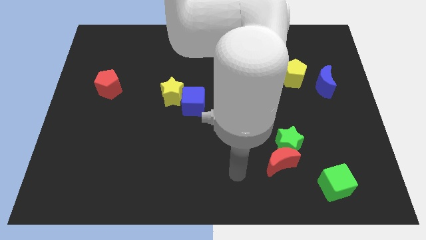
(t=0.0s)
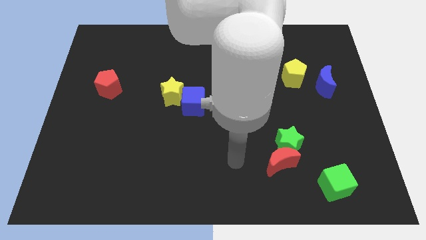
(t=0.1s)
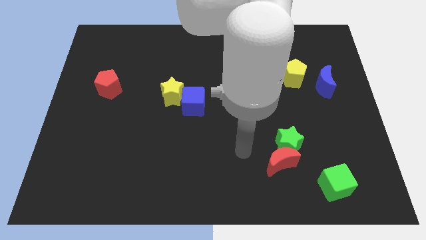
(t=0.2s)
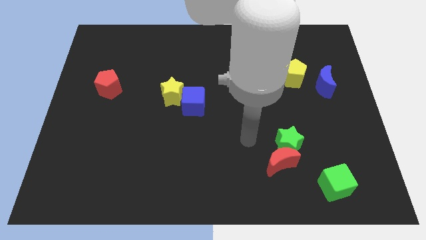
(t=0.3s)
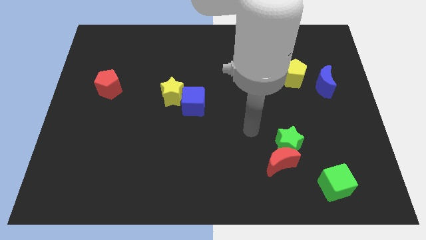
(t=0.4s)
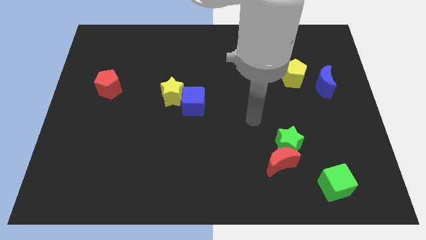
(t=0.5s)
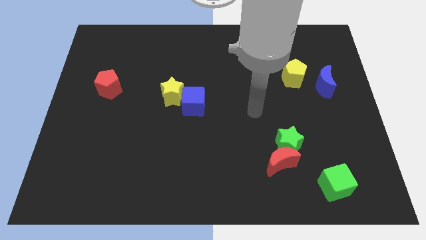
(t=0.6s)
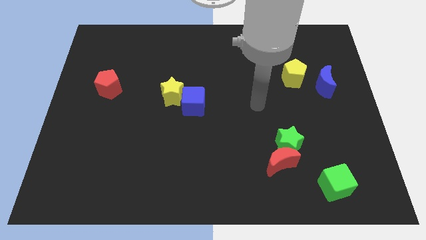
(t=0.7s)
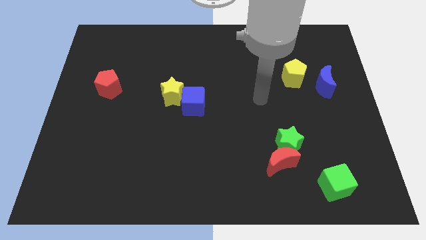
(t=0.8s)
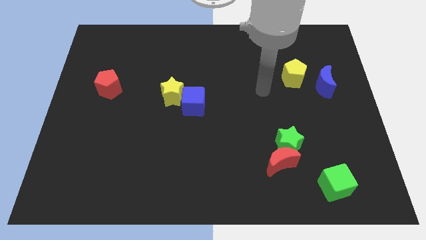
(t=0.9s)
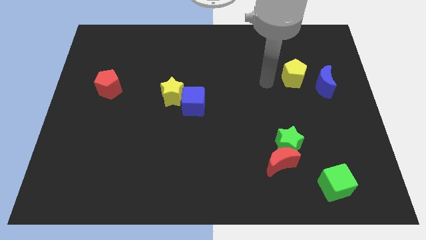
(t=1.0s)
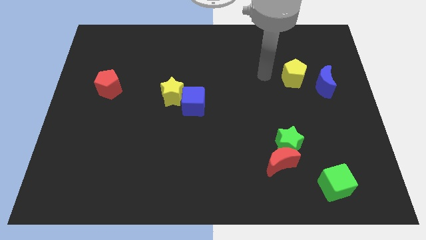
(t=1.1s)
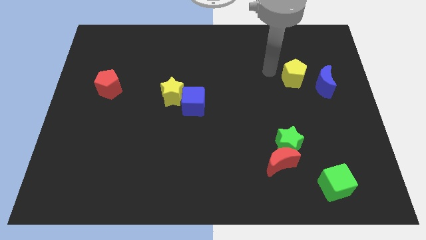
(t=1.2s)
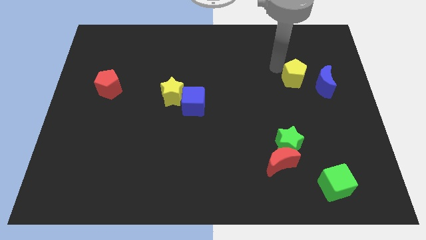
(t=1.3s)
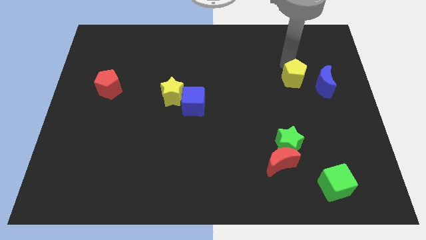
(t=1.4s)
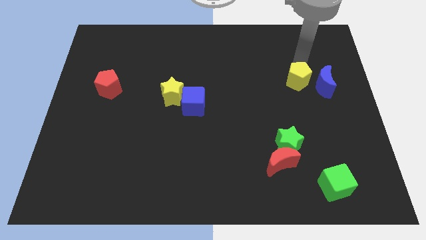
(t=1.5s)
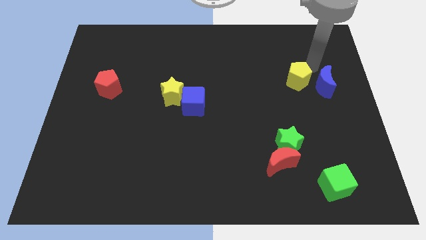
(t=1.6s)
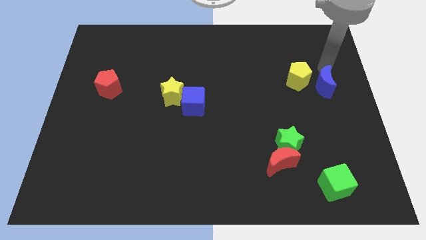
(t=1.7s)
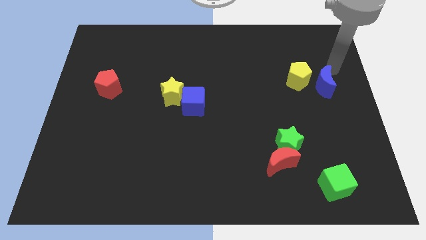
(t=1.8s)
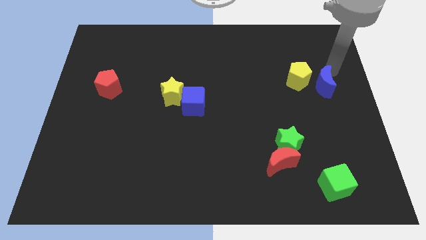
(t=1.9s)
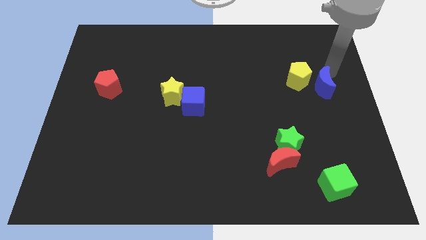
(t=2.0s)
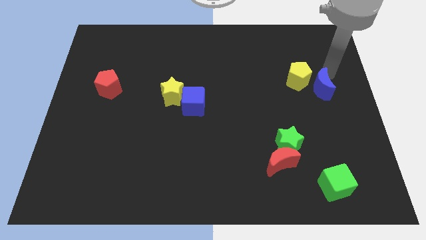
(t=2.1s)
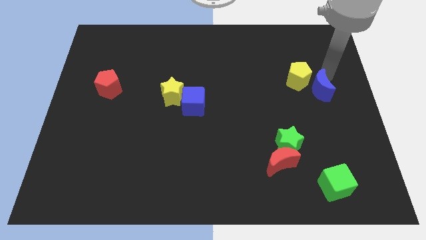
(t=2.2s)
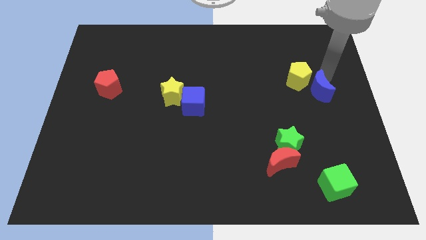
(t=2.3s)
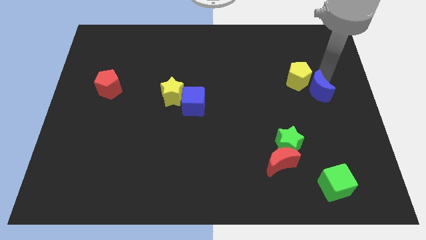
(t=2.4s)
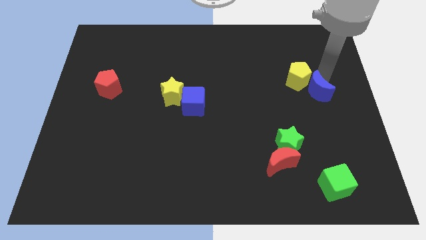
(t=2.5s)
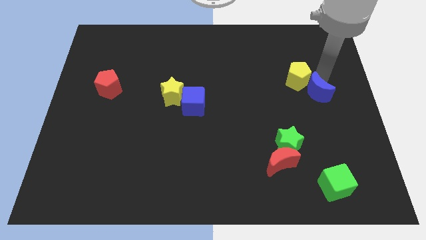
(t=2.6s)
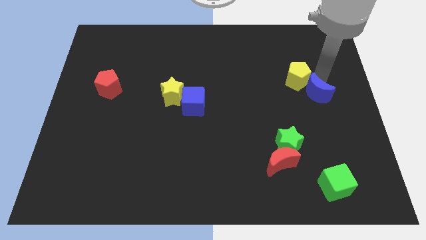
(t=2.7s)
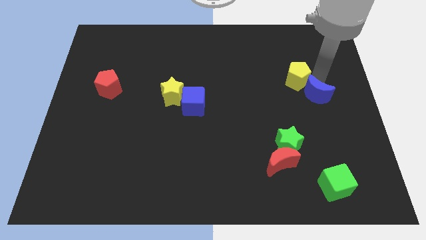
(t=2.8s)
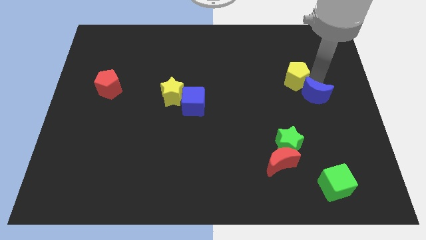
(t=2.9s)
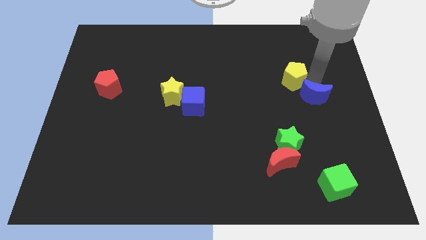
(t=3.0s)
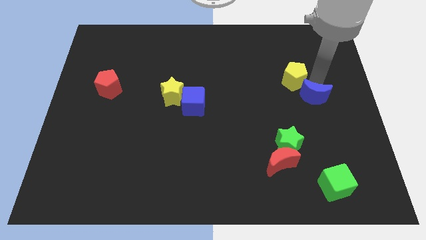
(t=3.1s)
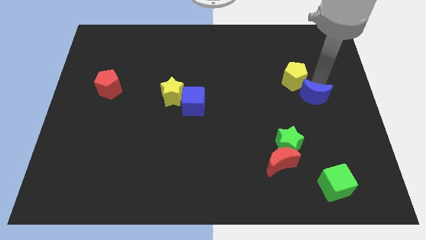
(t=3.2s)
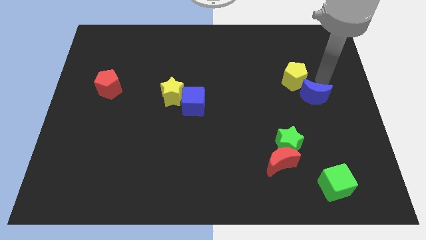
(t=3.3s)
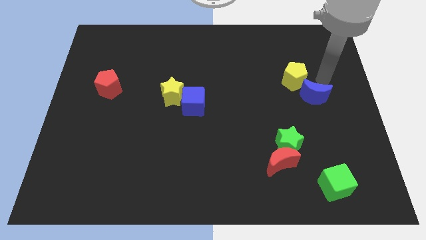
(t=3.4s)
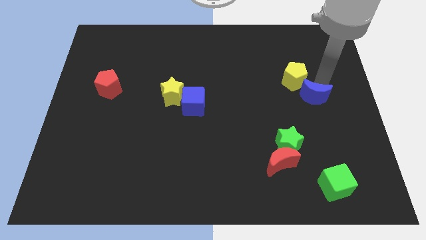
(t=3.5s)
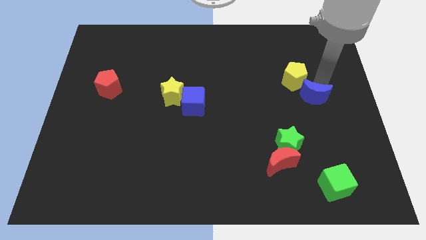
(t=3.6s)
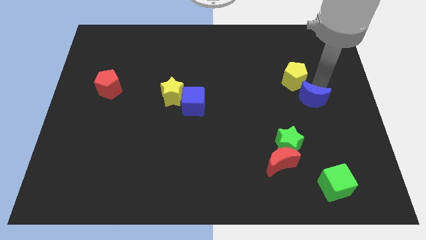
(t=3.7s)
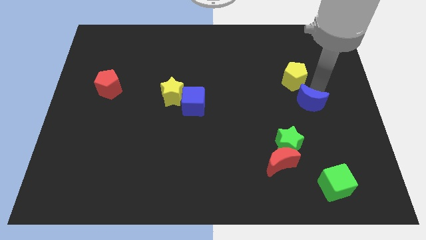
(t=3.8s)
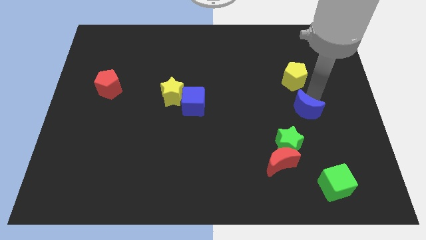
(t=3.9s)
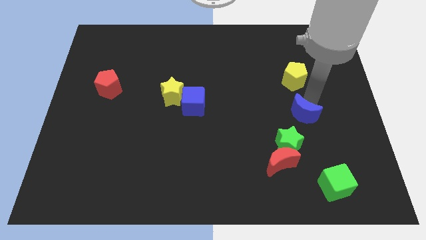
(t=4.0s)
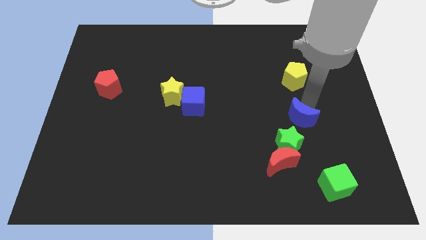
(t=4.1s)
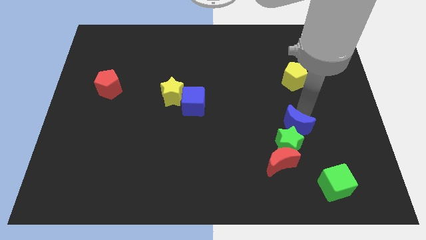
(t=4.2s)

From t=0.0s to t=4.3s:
put the blue moon to the green star

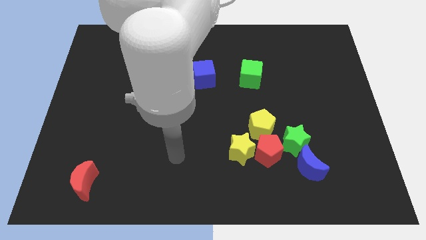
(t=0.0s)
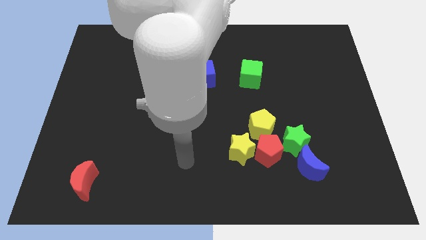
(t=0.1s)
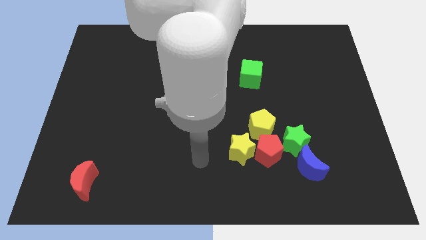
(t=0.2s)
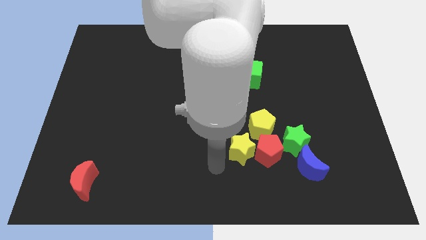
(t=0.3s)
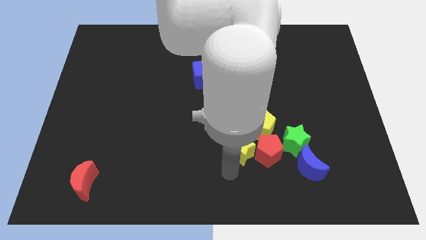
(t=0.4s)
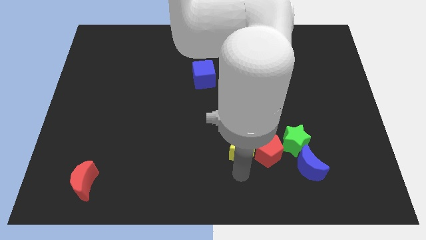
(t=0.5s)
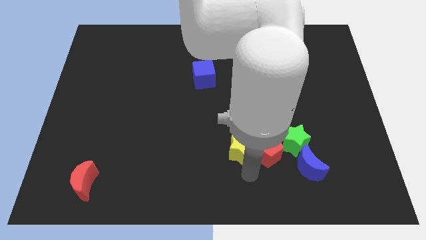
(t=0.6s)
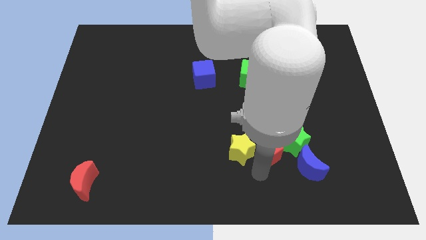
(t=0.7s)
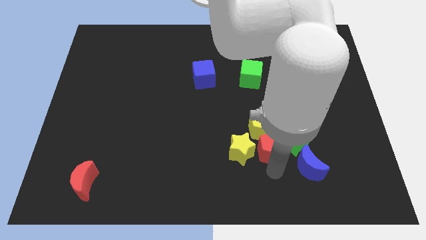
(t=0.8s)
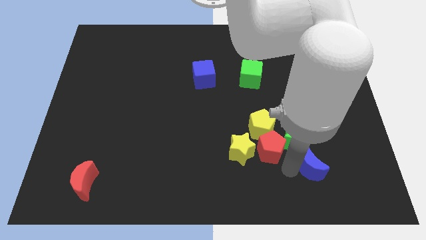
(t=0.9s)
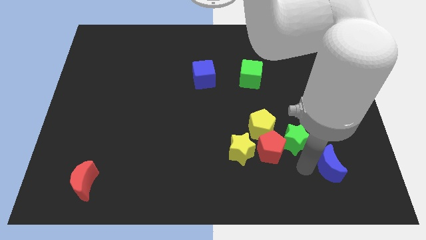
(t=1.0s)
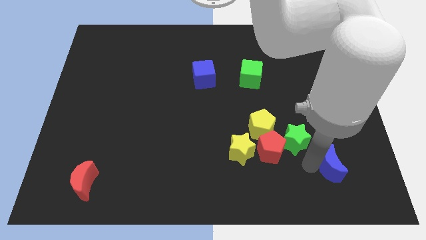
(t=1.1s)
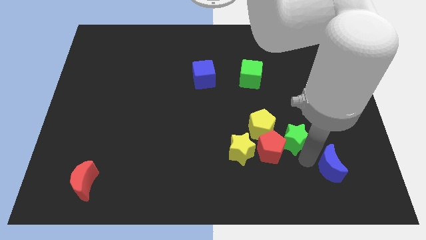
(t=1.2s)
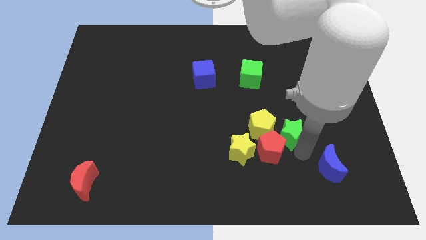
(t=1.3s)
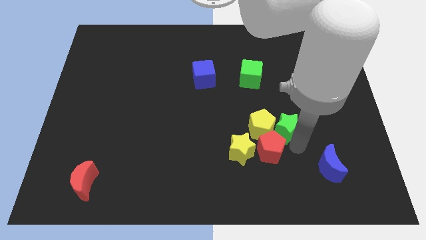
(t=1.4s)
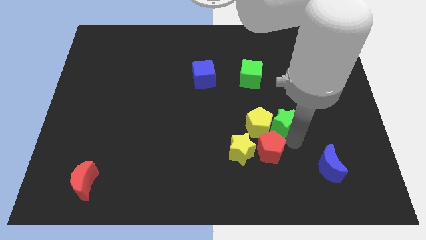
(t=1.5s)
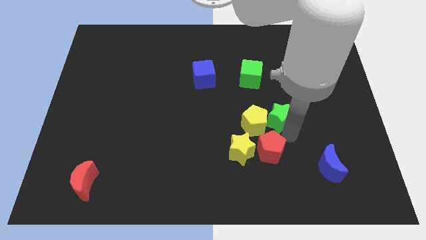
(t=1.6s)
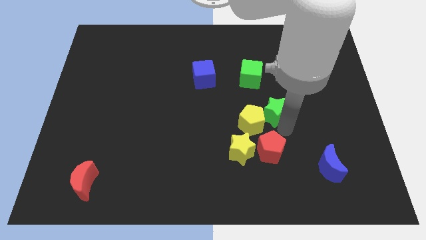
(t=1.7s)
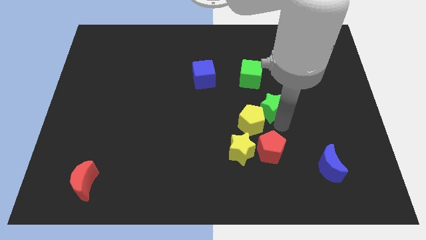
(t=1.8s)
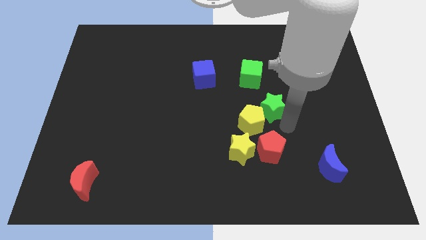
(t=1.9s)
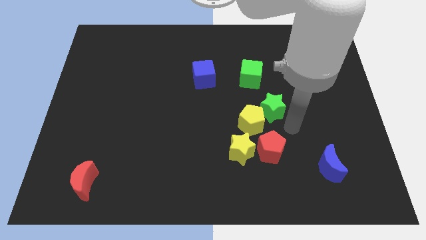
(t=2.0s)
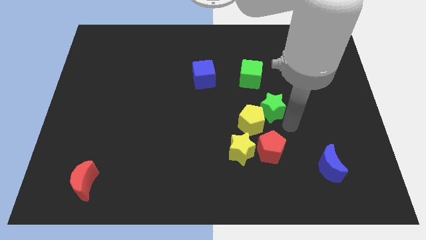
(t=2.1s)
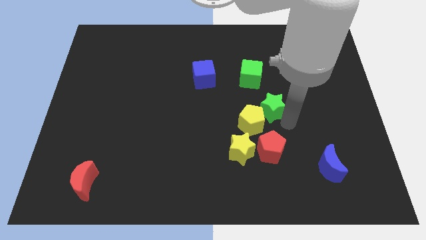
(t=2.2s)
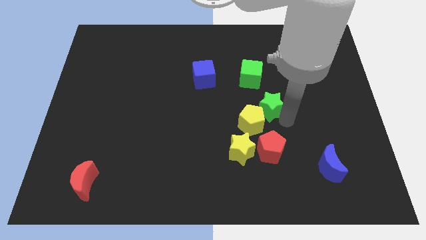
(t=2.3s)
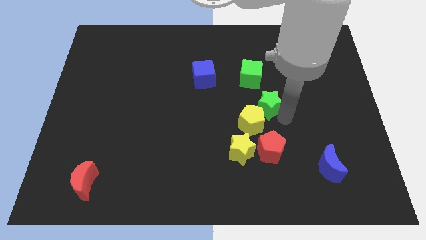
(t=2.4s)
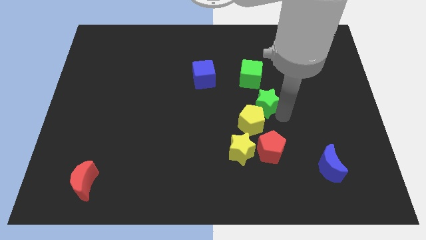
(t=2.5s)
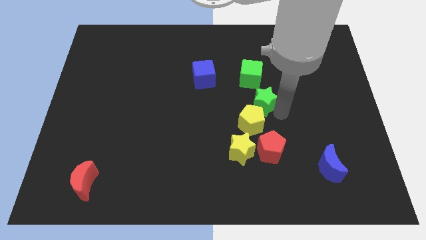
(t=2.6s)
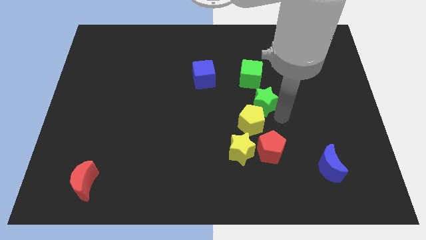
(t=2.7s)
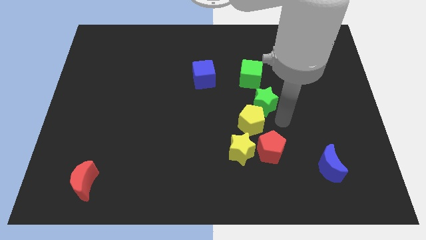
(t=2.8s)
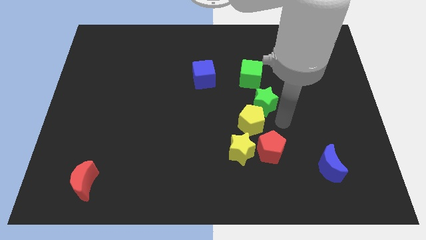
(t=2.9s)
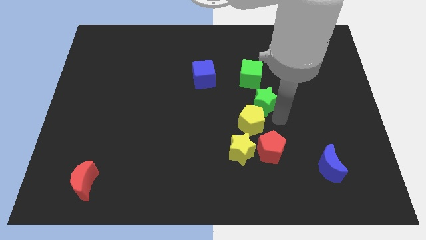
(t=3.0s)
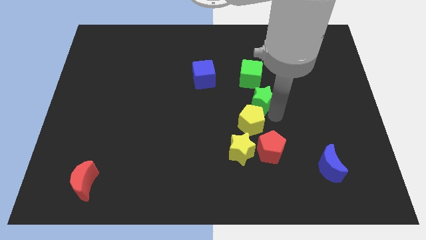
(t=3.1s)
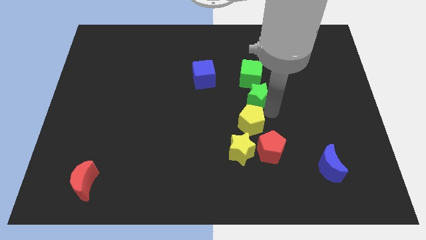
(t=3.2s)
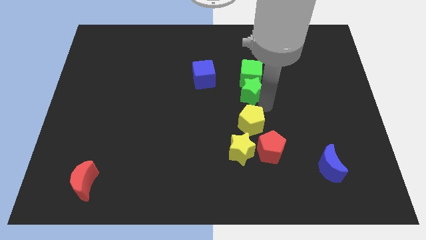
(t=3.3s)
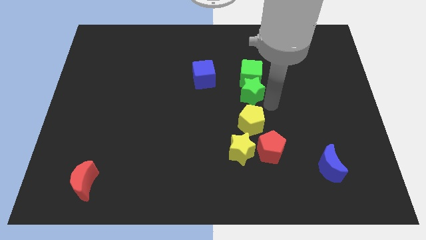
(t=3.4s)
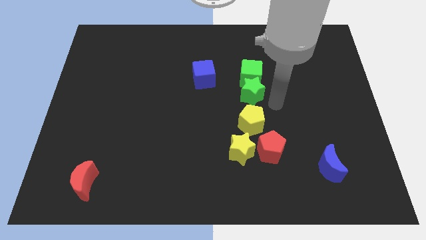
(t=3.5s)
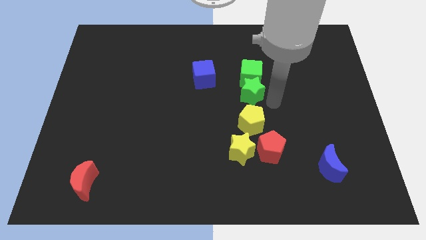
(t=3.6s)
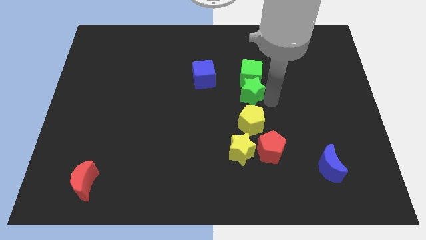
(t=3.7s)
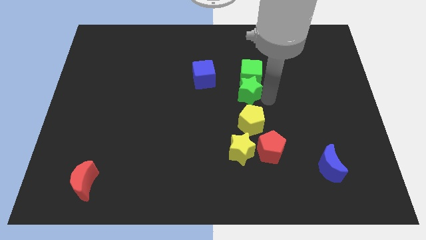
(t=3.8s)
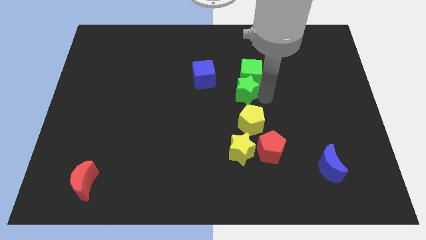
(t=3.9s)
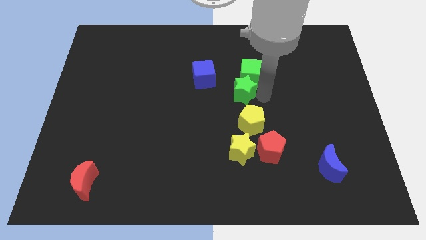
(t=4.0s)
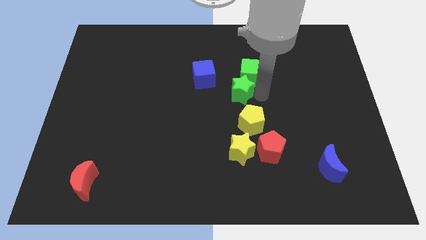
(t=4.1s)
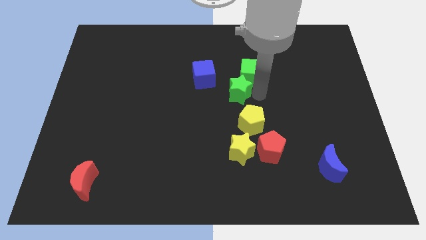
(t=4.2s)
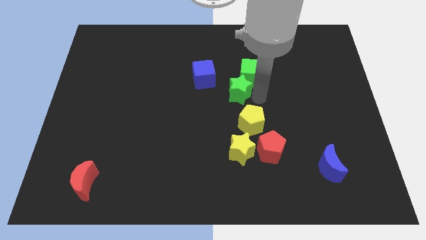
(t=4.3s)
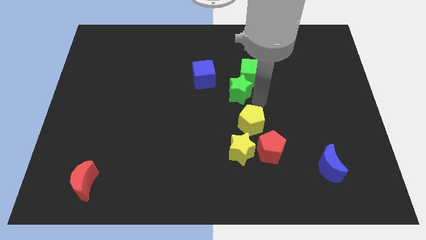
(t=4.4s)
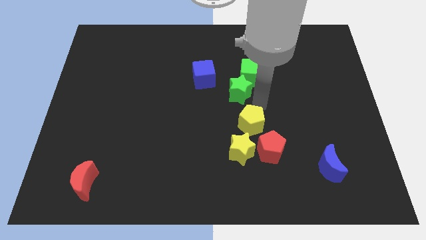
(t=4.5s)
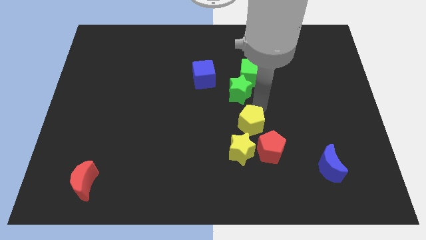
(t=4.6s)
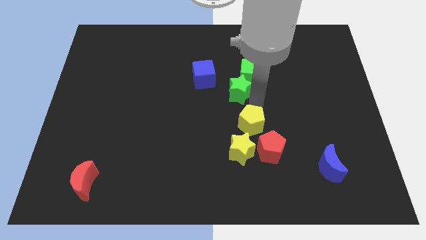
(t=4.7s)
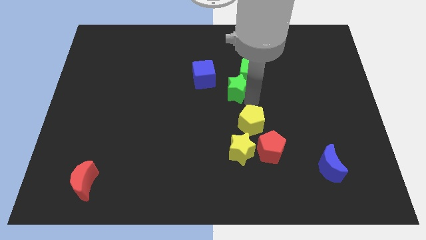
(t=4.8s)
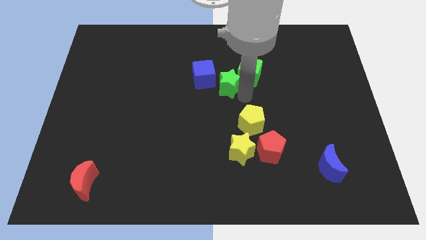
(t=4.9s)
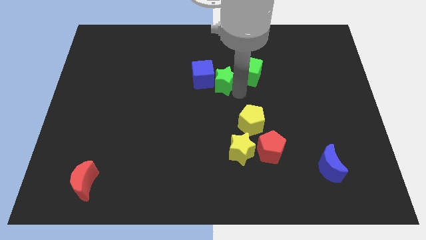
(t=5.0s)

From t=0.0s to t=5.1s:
push the green star next to the blue cube
